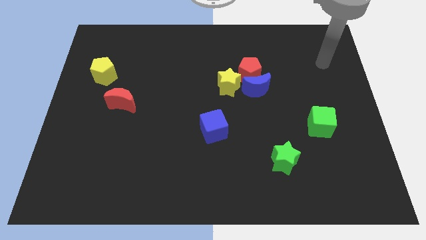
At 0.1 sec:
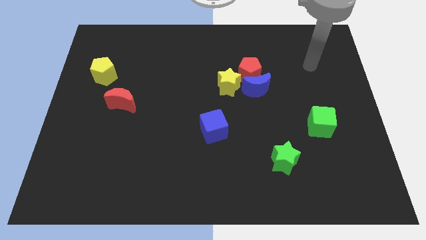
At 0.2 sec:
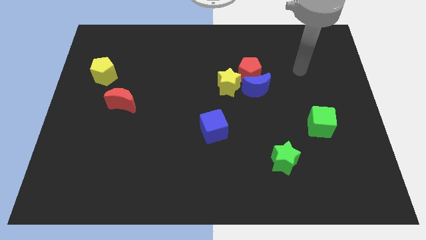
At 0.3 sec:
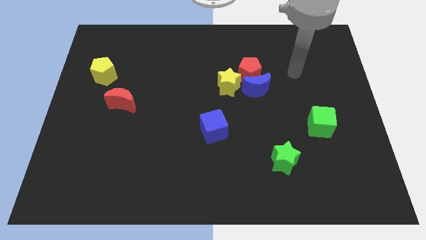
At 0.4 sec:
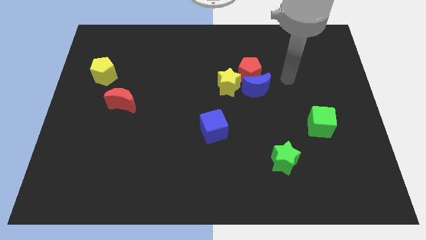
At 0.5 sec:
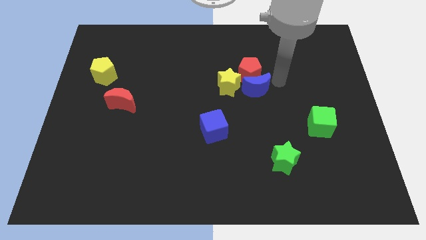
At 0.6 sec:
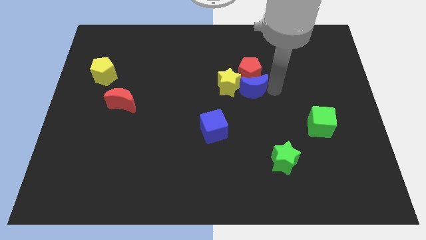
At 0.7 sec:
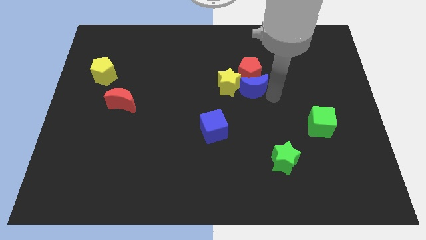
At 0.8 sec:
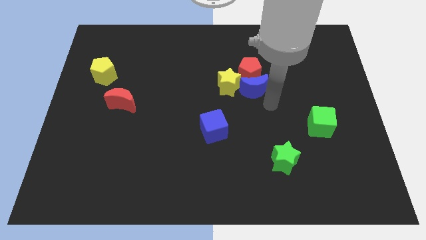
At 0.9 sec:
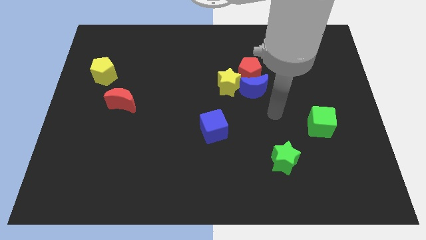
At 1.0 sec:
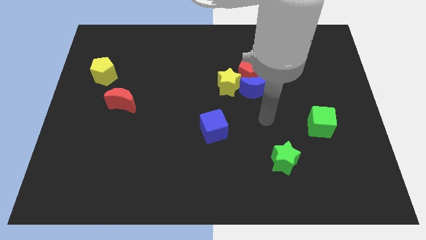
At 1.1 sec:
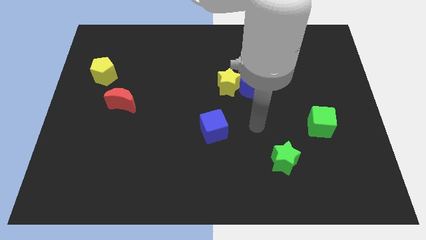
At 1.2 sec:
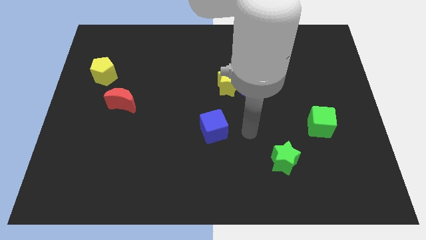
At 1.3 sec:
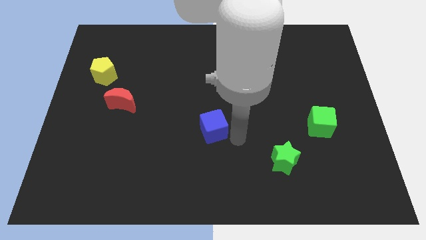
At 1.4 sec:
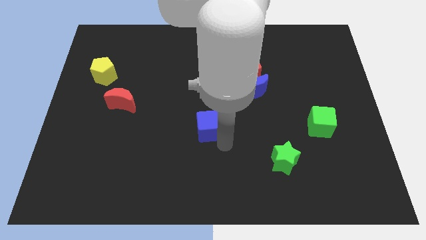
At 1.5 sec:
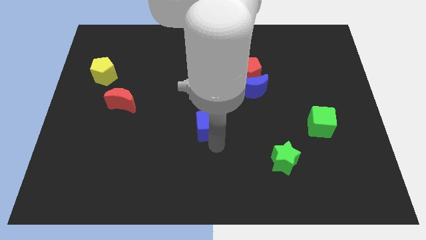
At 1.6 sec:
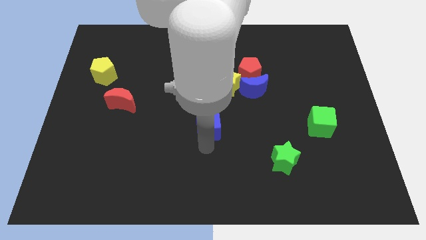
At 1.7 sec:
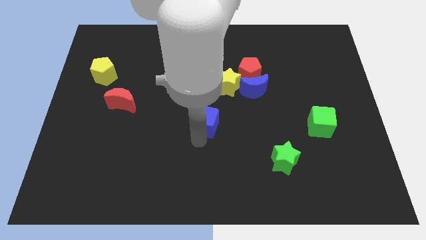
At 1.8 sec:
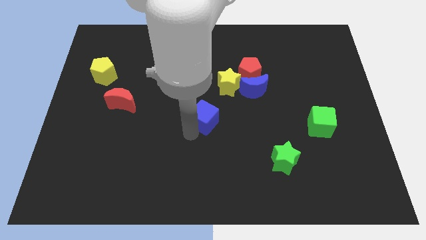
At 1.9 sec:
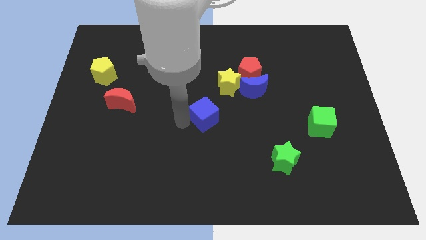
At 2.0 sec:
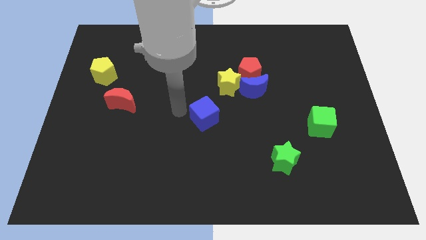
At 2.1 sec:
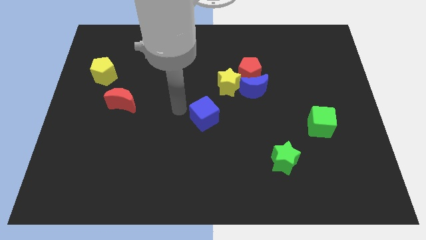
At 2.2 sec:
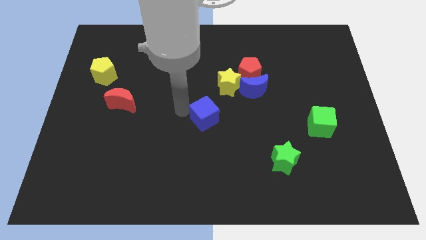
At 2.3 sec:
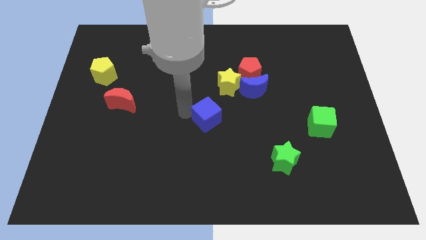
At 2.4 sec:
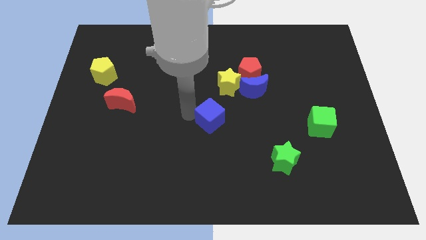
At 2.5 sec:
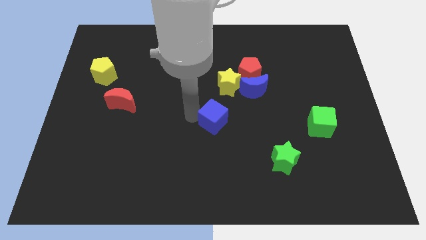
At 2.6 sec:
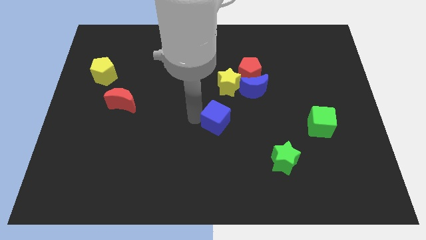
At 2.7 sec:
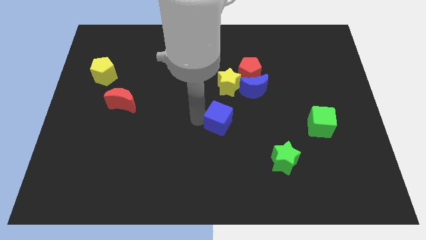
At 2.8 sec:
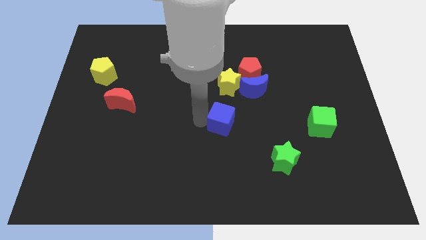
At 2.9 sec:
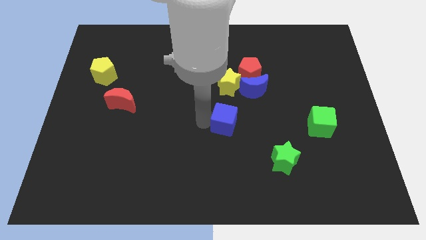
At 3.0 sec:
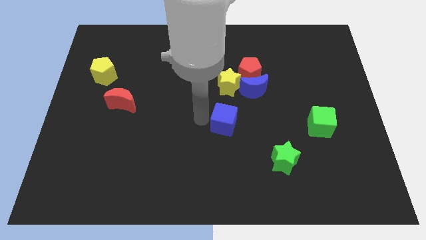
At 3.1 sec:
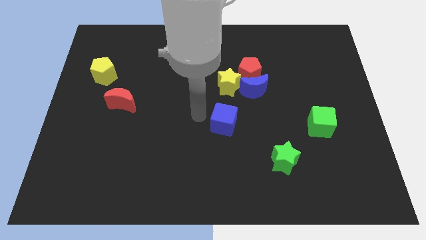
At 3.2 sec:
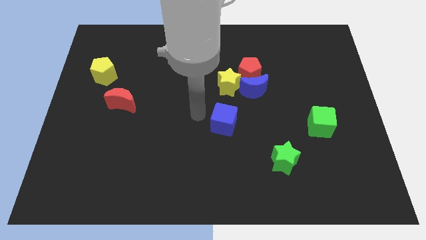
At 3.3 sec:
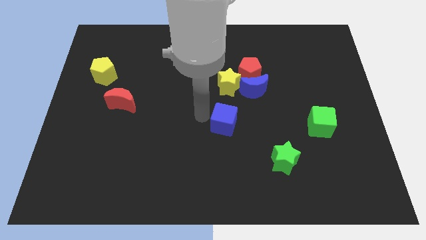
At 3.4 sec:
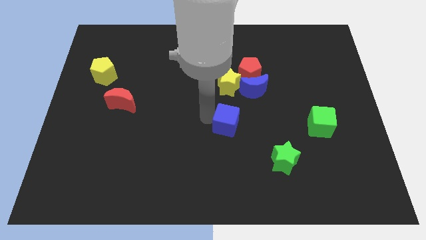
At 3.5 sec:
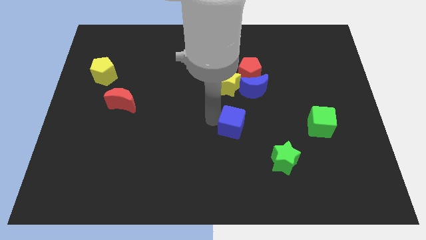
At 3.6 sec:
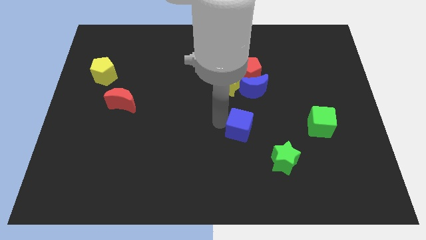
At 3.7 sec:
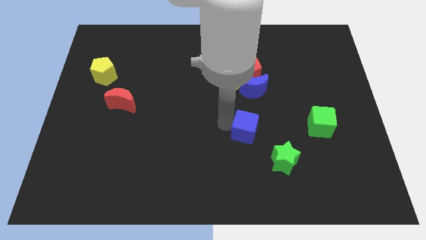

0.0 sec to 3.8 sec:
push the blue cube somewhat to the right

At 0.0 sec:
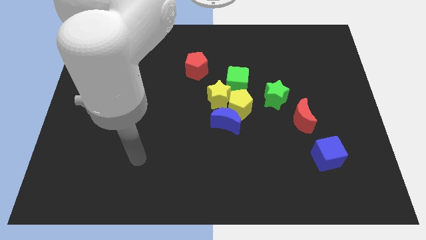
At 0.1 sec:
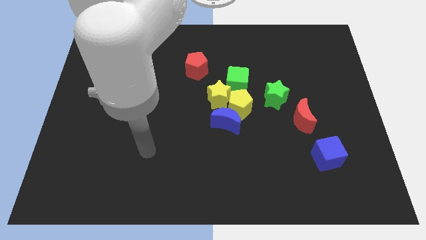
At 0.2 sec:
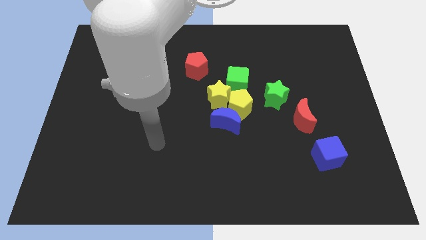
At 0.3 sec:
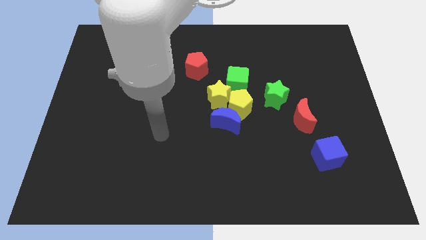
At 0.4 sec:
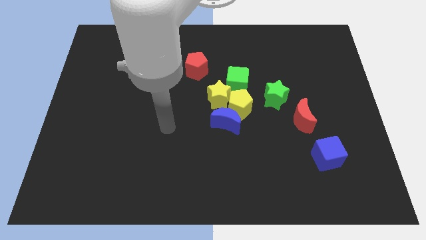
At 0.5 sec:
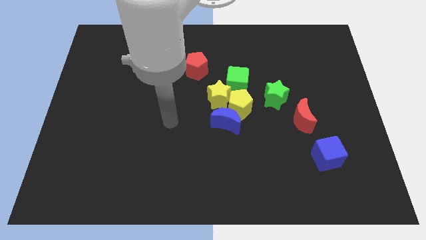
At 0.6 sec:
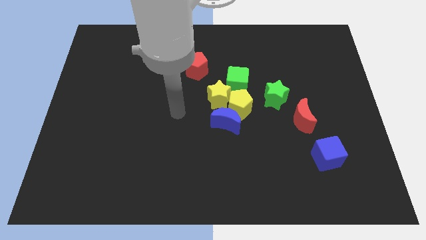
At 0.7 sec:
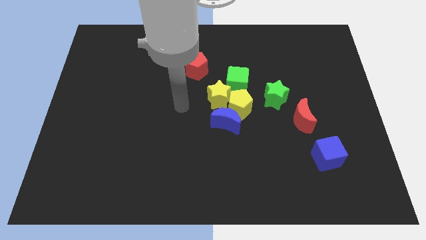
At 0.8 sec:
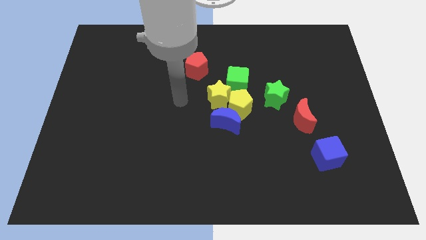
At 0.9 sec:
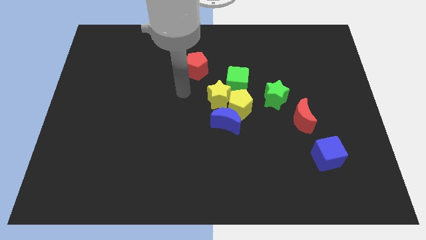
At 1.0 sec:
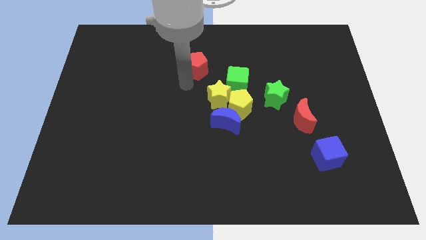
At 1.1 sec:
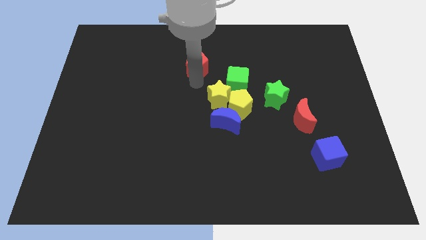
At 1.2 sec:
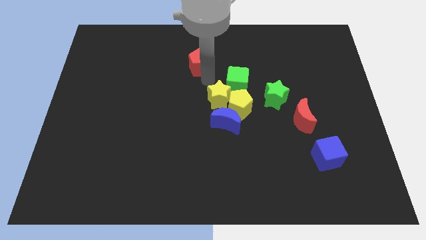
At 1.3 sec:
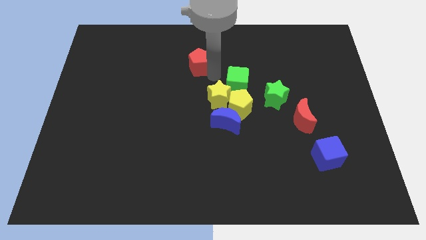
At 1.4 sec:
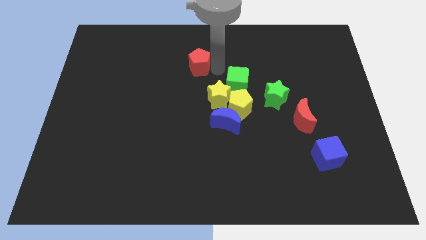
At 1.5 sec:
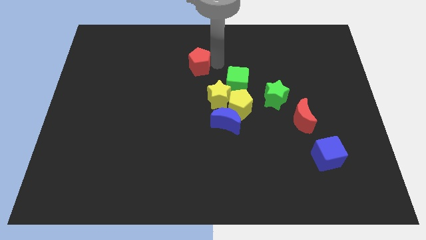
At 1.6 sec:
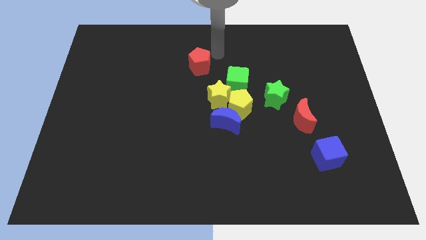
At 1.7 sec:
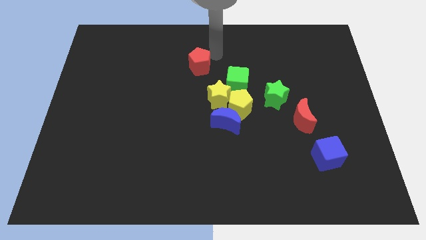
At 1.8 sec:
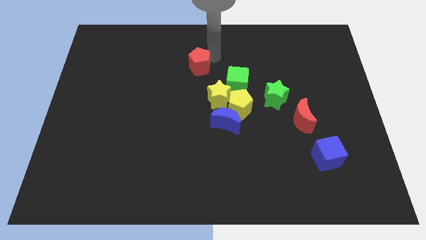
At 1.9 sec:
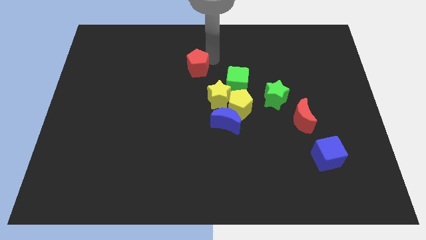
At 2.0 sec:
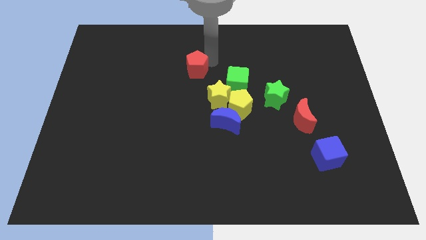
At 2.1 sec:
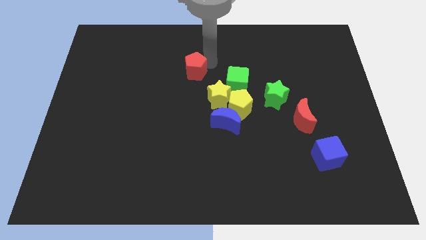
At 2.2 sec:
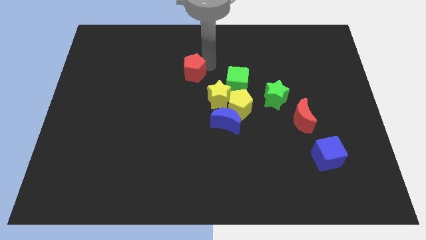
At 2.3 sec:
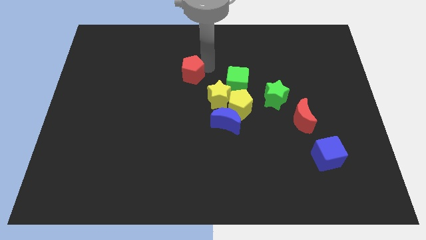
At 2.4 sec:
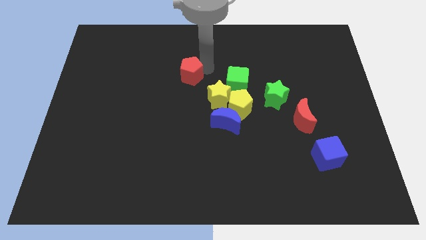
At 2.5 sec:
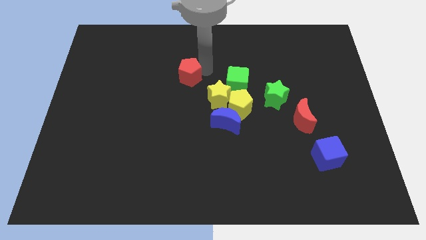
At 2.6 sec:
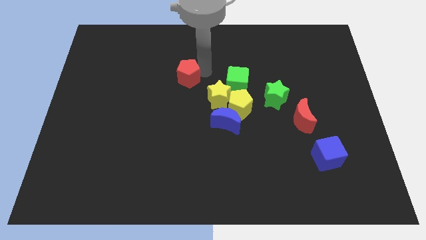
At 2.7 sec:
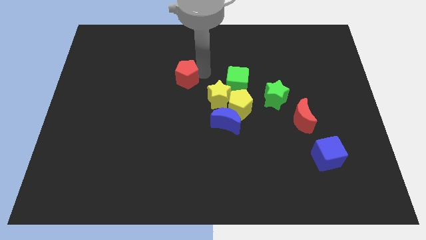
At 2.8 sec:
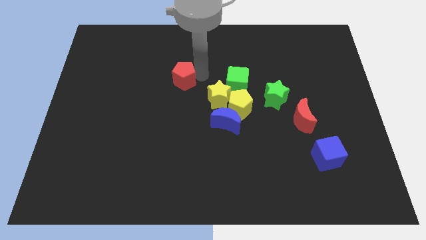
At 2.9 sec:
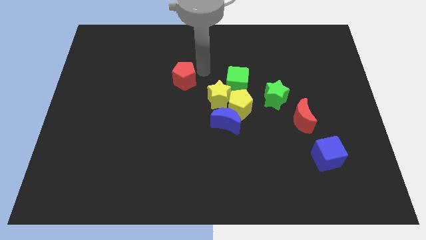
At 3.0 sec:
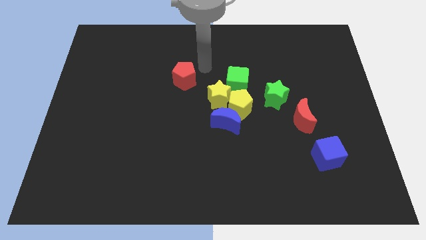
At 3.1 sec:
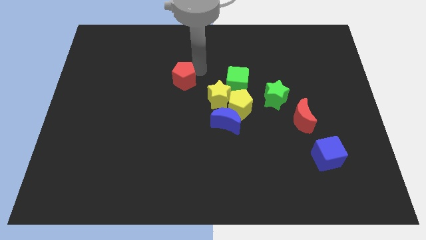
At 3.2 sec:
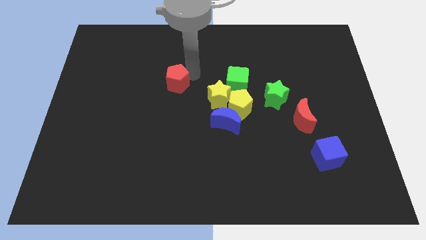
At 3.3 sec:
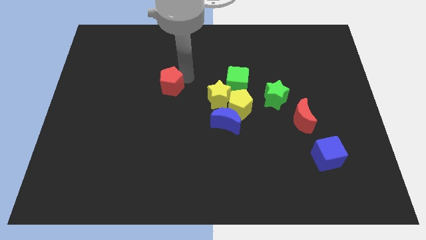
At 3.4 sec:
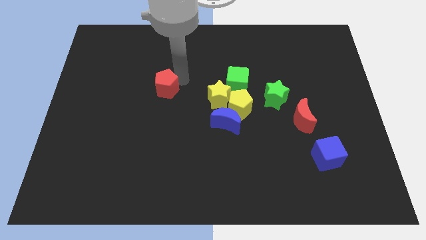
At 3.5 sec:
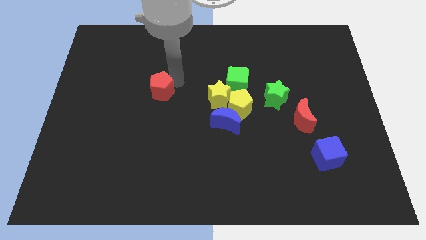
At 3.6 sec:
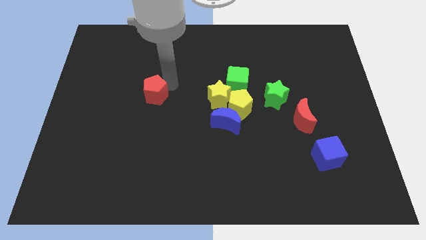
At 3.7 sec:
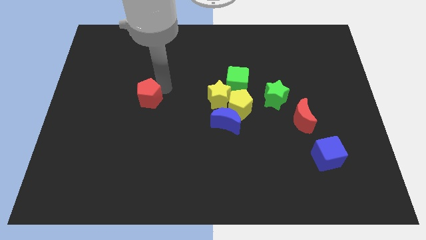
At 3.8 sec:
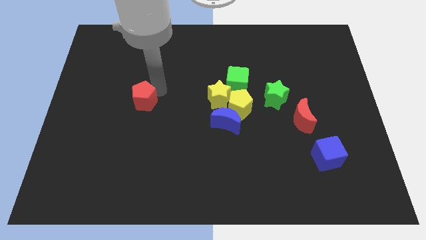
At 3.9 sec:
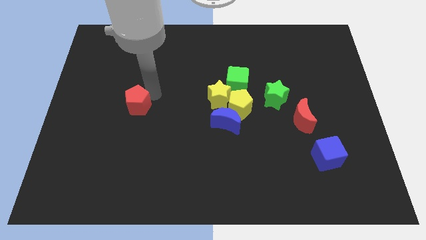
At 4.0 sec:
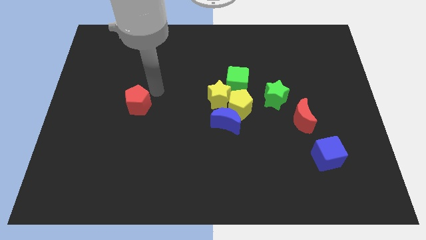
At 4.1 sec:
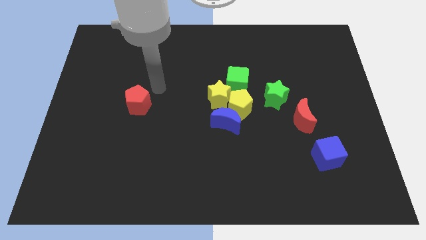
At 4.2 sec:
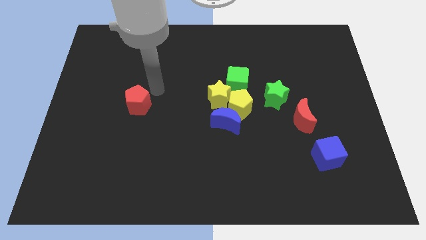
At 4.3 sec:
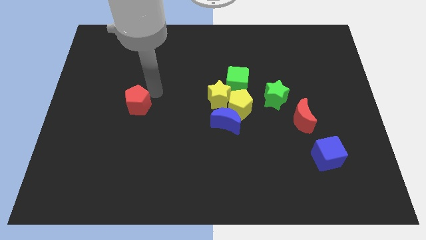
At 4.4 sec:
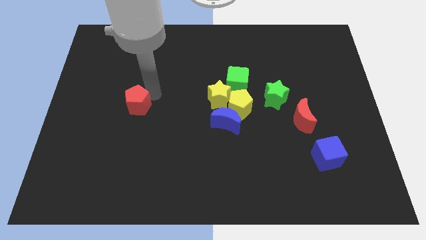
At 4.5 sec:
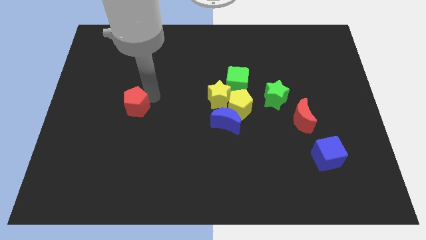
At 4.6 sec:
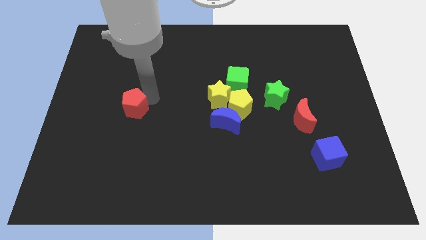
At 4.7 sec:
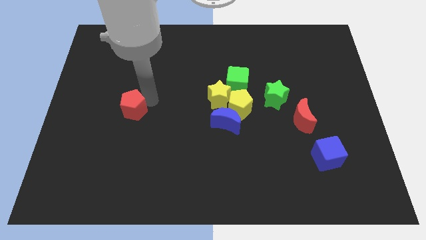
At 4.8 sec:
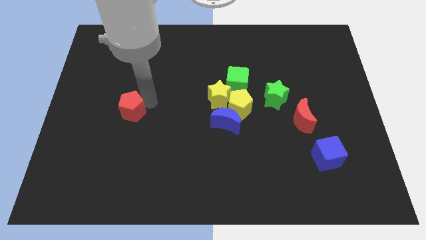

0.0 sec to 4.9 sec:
move the red pentagon down and then to the left
